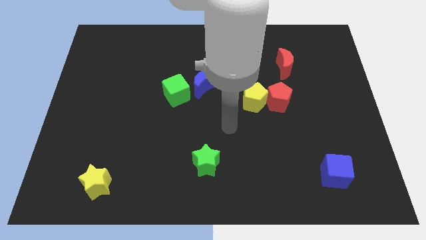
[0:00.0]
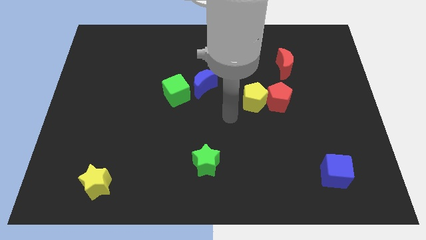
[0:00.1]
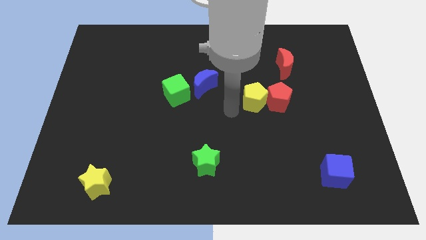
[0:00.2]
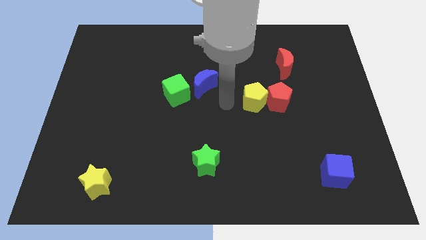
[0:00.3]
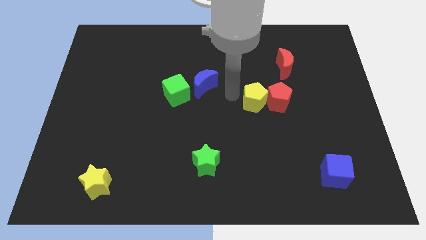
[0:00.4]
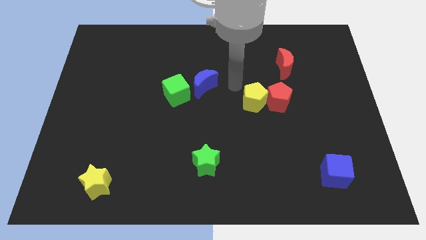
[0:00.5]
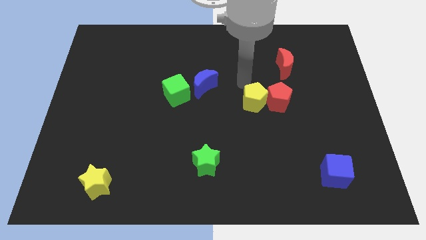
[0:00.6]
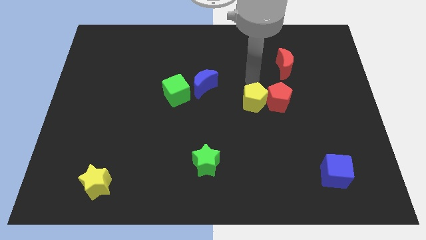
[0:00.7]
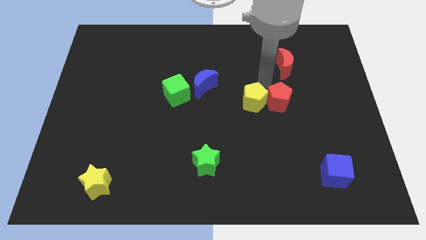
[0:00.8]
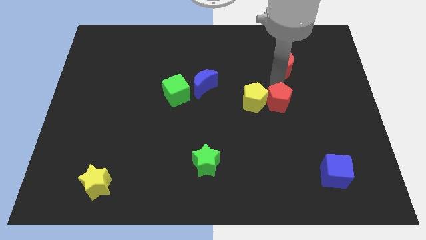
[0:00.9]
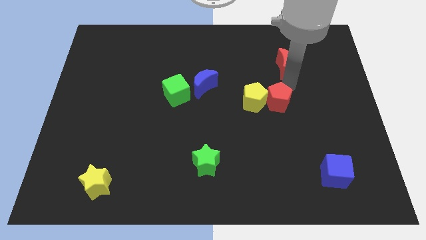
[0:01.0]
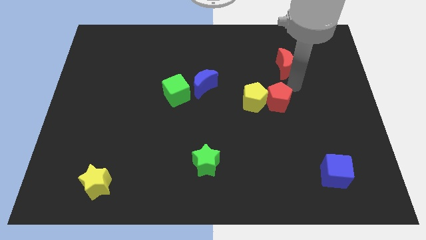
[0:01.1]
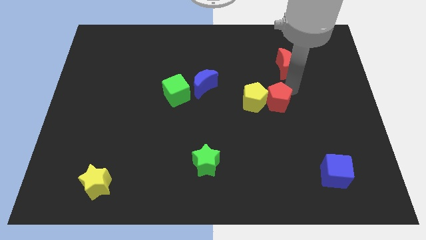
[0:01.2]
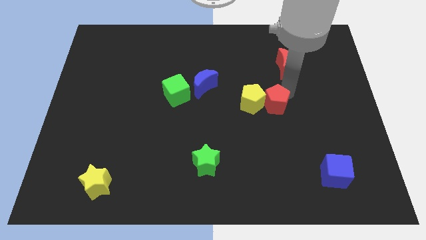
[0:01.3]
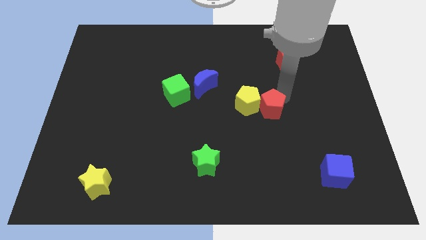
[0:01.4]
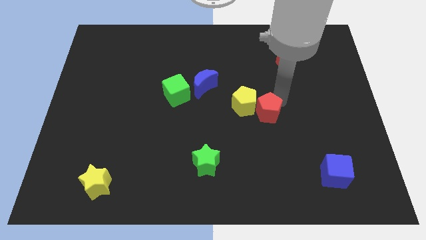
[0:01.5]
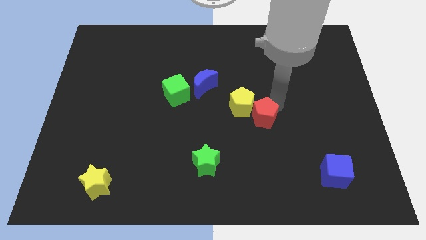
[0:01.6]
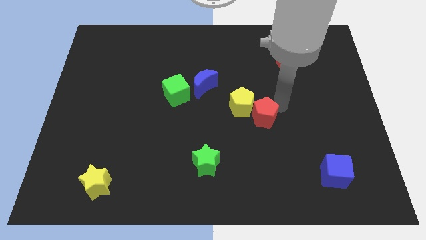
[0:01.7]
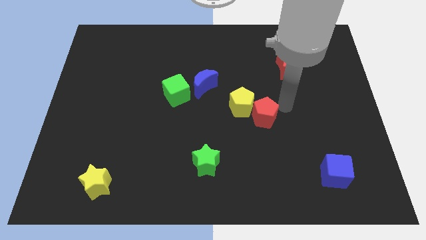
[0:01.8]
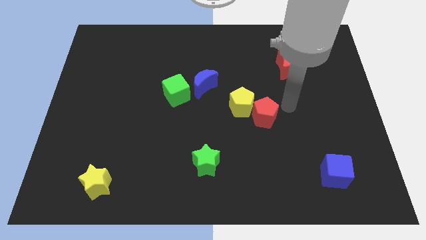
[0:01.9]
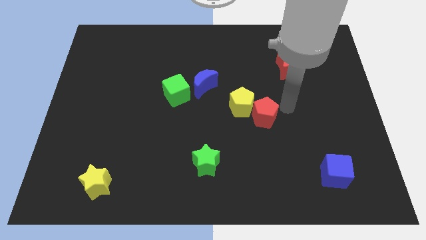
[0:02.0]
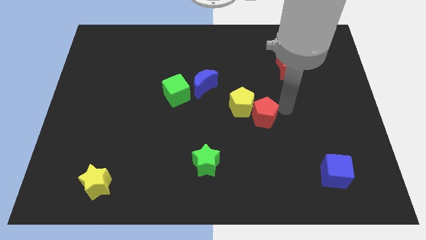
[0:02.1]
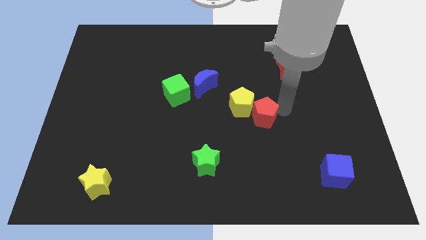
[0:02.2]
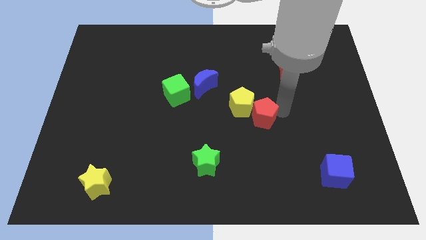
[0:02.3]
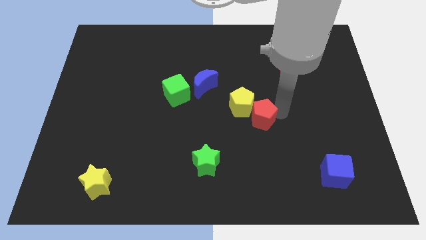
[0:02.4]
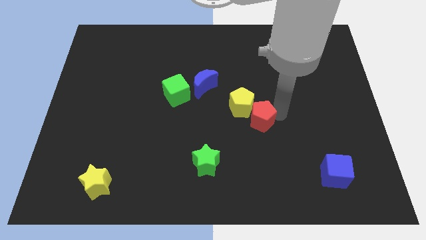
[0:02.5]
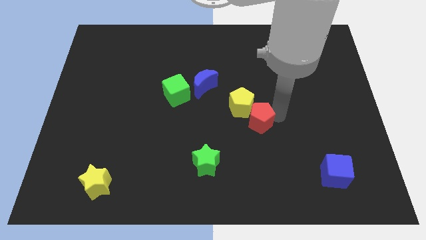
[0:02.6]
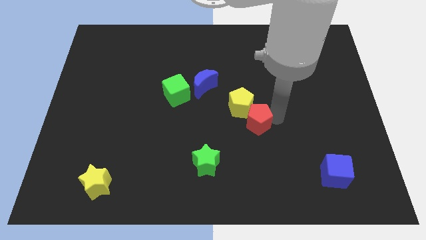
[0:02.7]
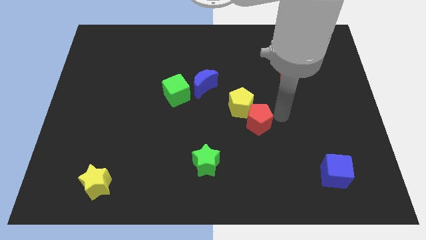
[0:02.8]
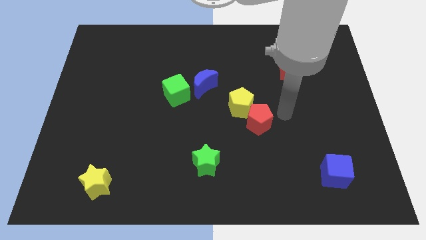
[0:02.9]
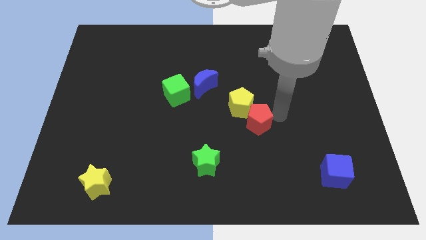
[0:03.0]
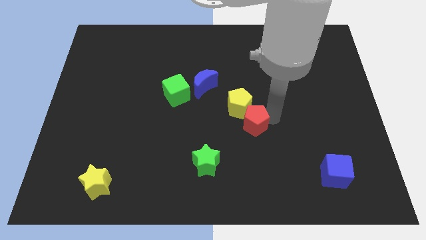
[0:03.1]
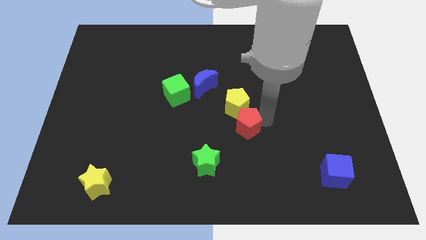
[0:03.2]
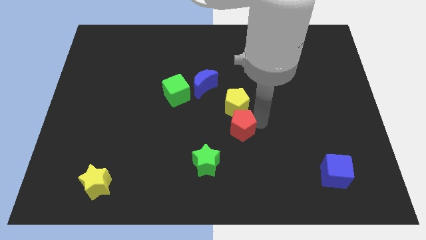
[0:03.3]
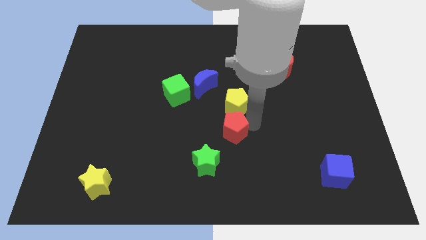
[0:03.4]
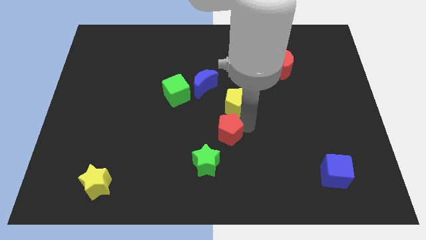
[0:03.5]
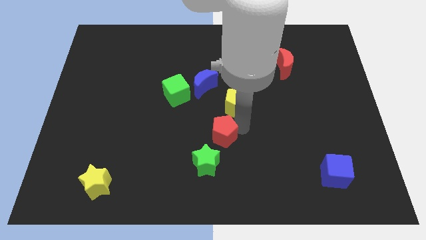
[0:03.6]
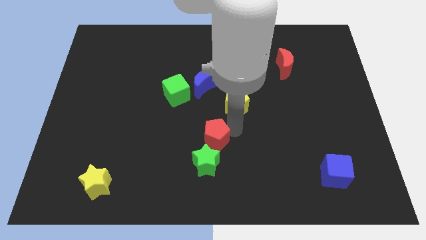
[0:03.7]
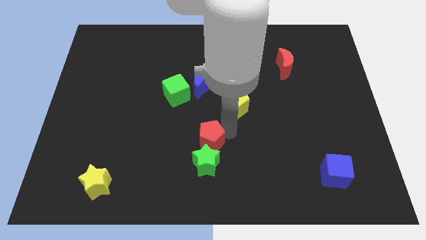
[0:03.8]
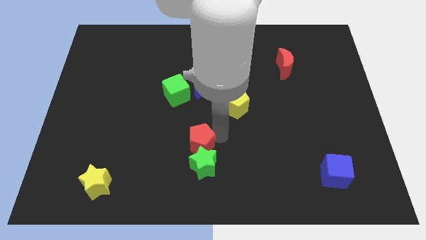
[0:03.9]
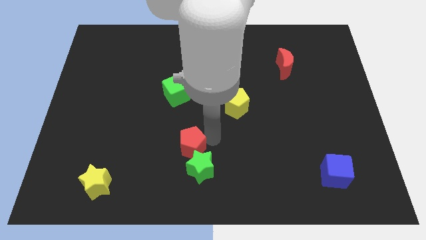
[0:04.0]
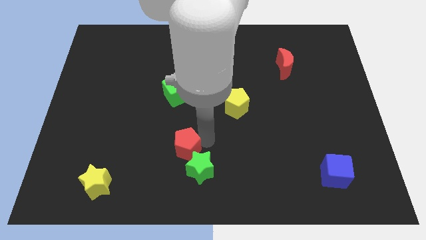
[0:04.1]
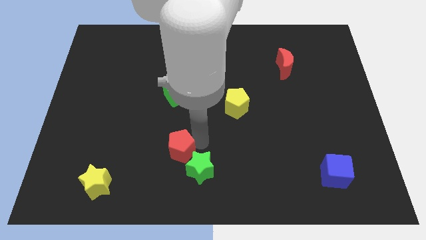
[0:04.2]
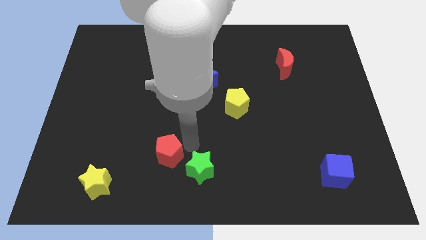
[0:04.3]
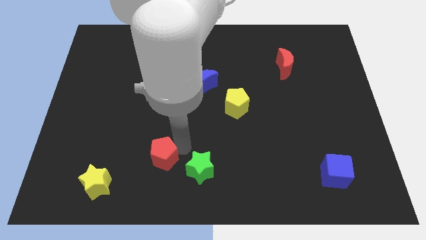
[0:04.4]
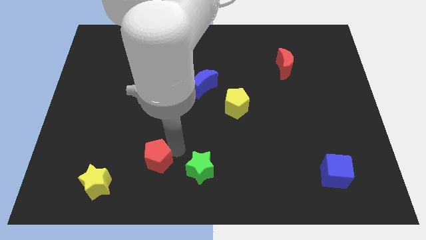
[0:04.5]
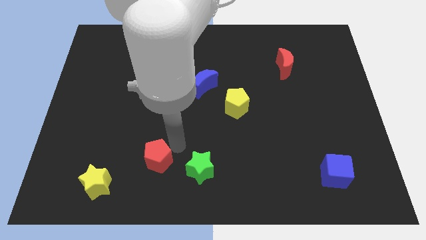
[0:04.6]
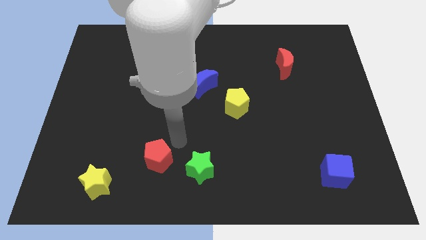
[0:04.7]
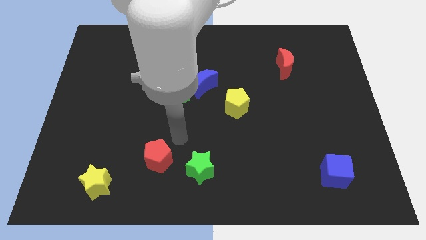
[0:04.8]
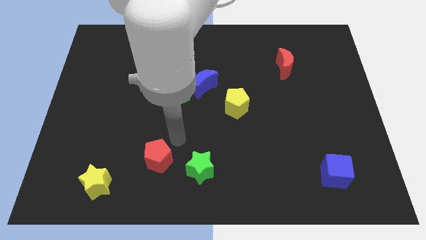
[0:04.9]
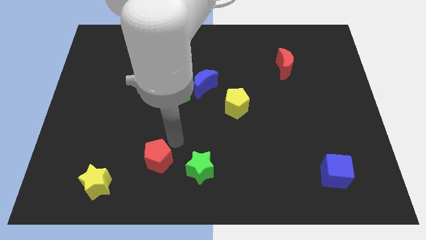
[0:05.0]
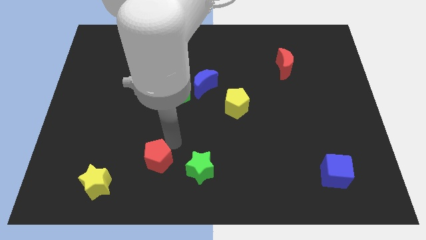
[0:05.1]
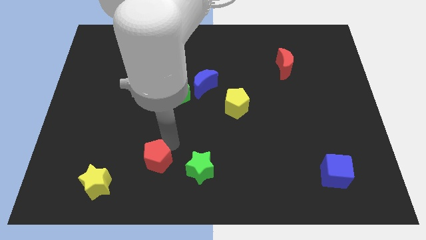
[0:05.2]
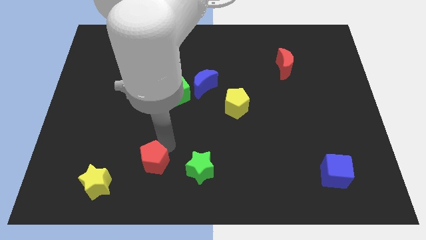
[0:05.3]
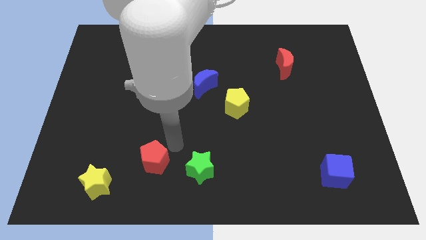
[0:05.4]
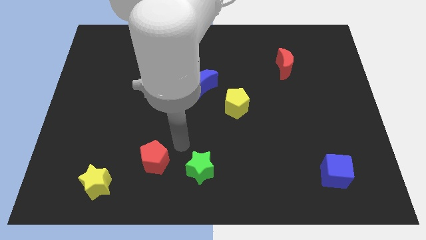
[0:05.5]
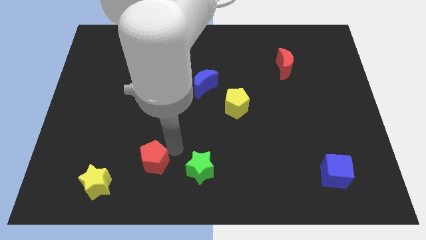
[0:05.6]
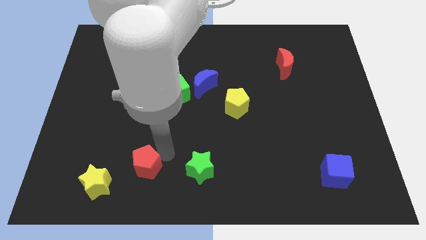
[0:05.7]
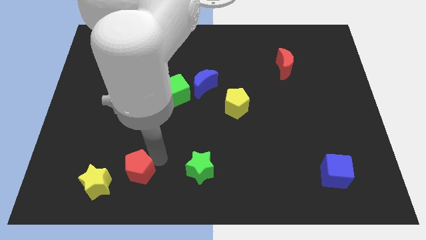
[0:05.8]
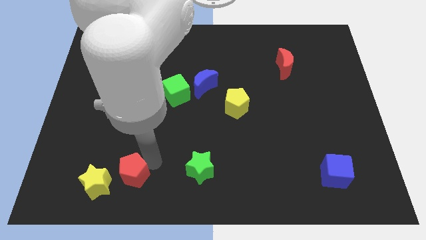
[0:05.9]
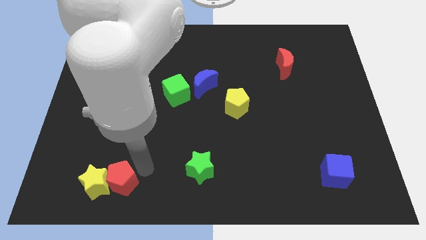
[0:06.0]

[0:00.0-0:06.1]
slide the red pentagon close to the yellow star

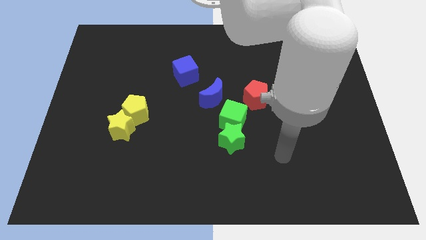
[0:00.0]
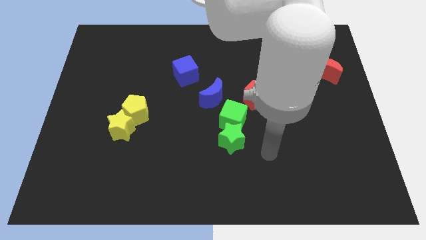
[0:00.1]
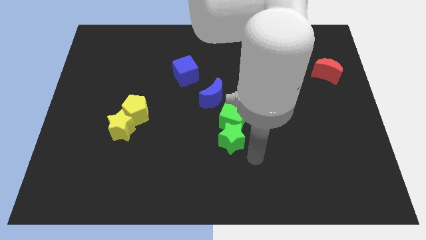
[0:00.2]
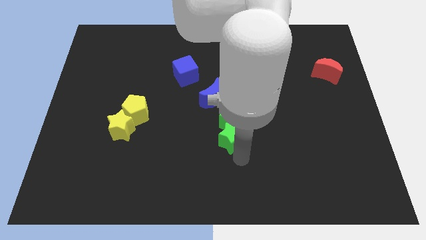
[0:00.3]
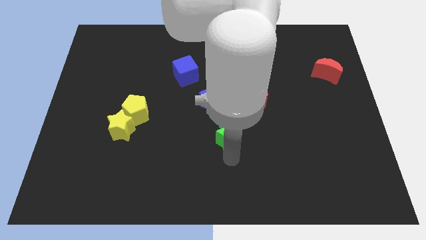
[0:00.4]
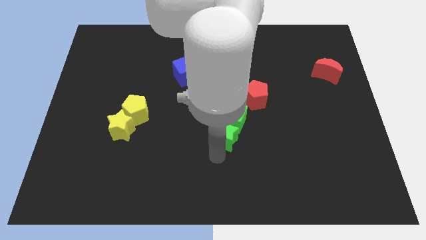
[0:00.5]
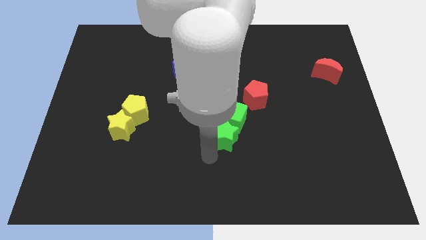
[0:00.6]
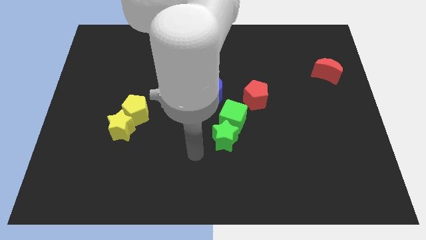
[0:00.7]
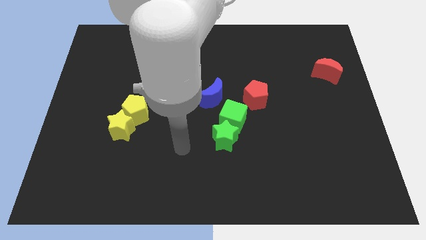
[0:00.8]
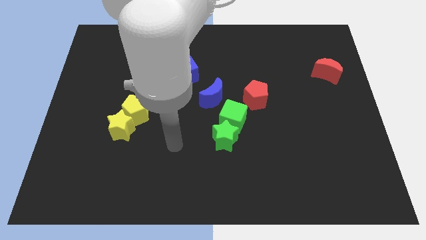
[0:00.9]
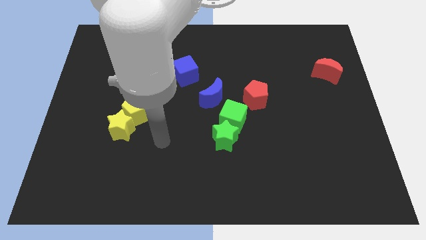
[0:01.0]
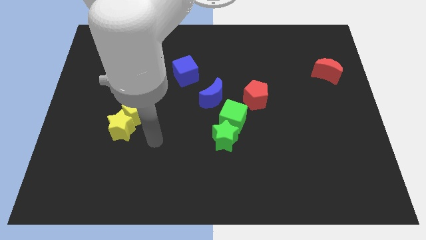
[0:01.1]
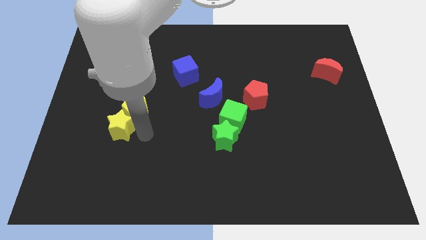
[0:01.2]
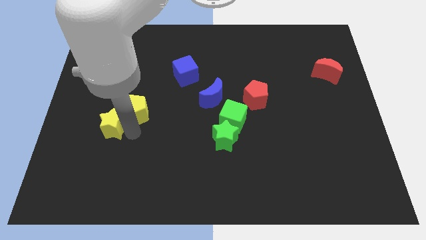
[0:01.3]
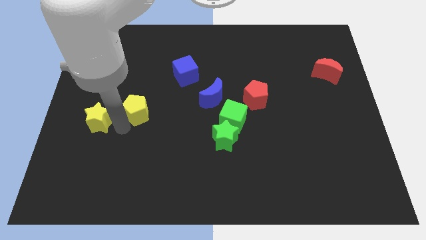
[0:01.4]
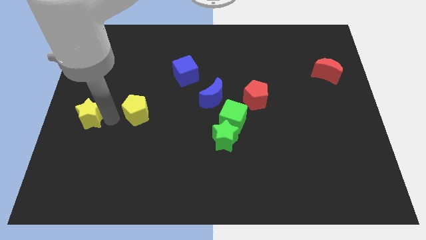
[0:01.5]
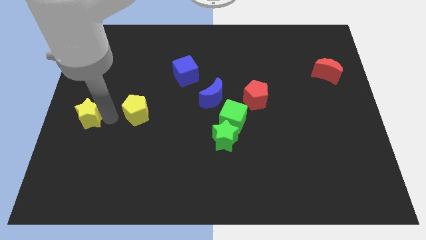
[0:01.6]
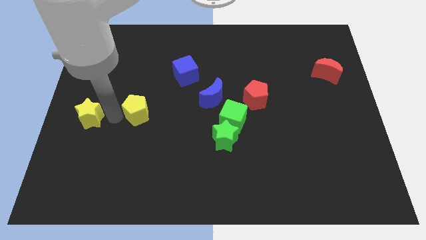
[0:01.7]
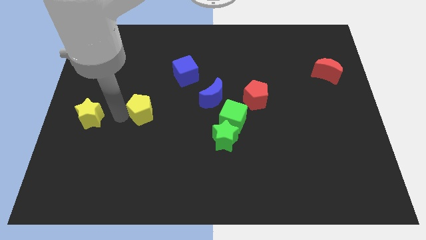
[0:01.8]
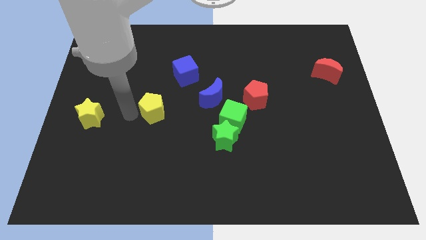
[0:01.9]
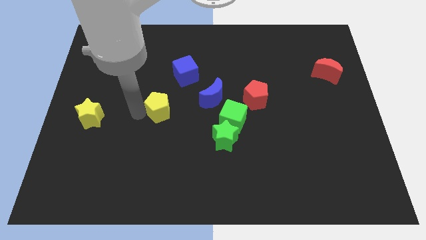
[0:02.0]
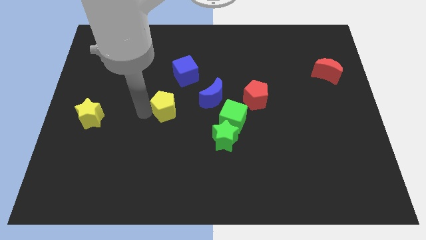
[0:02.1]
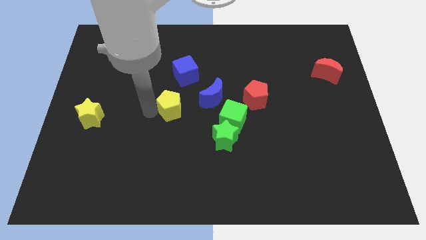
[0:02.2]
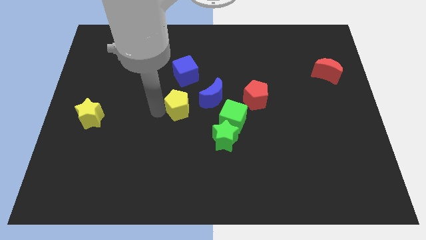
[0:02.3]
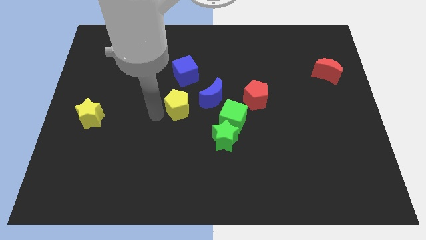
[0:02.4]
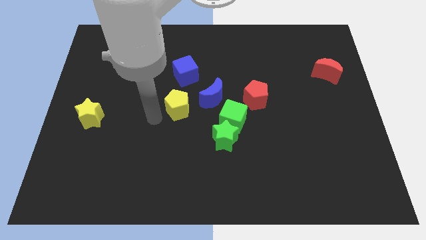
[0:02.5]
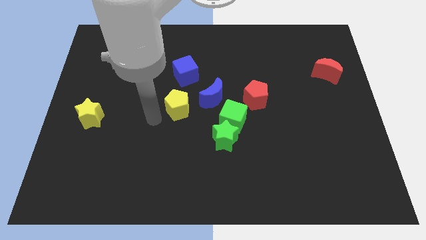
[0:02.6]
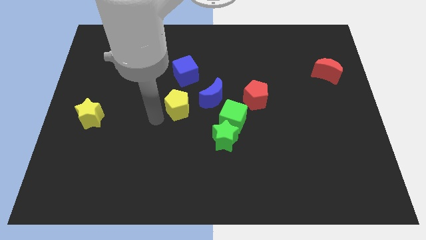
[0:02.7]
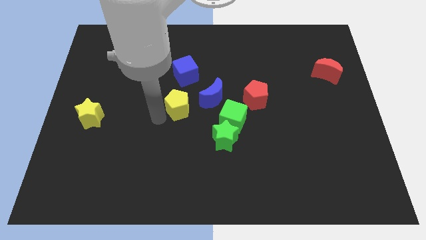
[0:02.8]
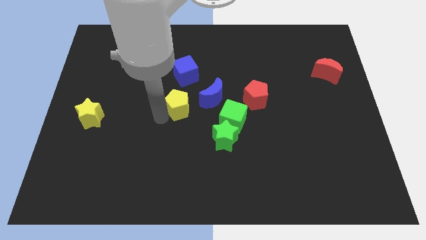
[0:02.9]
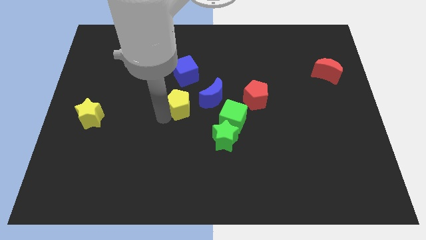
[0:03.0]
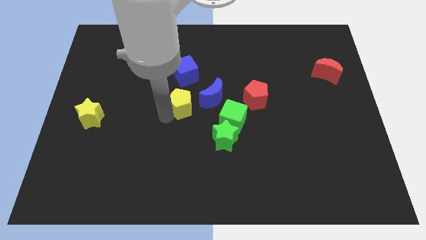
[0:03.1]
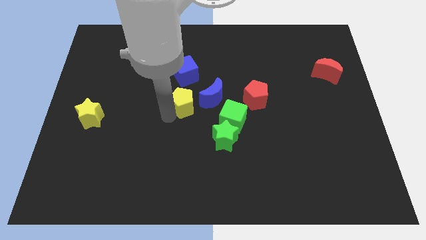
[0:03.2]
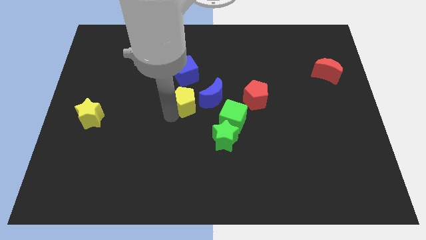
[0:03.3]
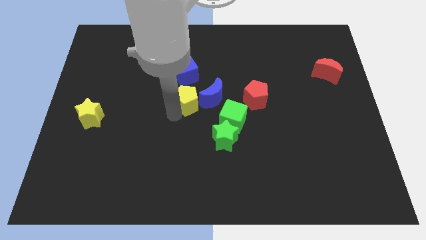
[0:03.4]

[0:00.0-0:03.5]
push the yellow pentagon to the blue moon
